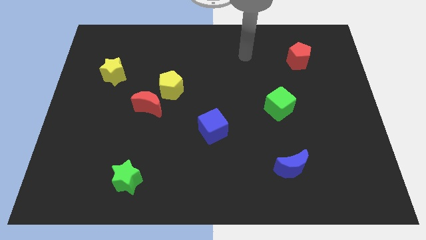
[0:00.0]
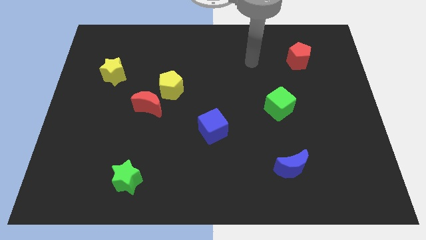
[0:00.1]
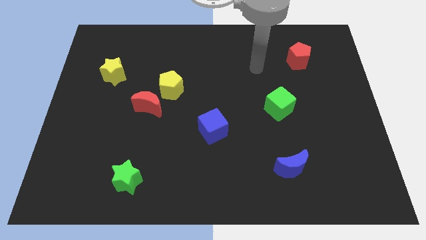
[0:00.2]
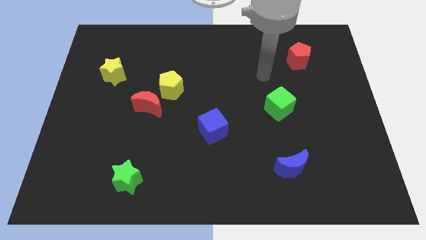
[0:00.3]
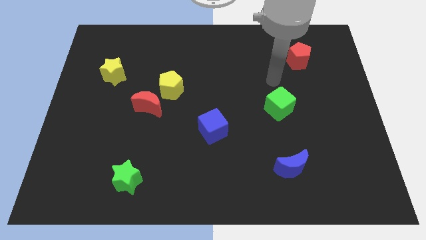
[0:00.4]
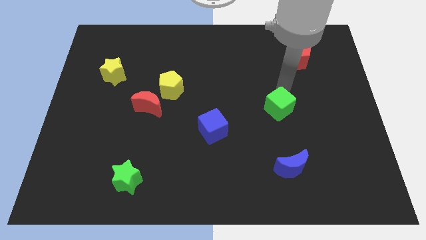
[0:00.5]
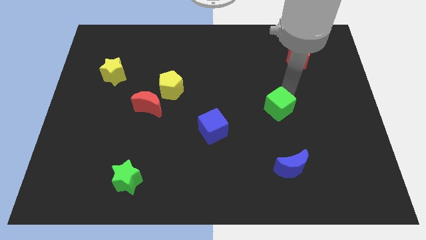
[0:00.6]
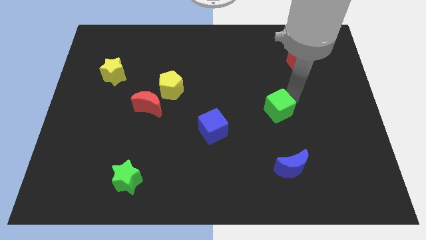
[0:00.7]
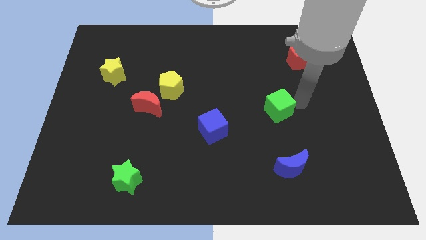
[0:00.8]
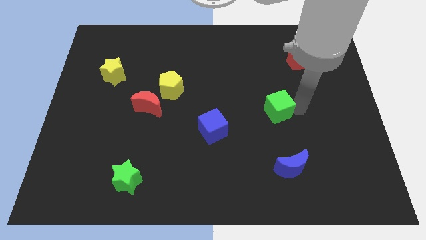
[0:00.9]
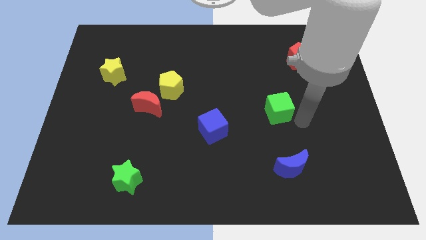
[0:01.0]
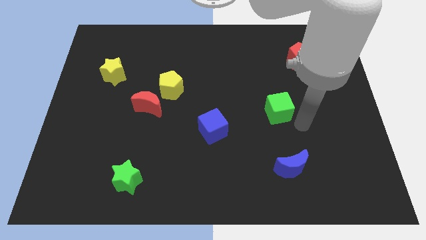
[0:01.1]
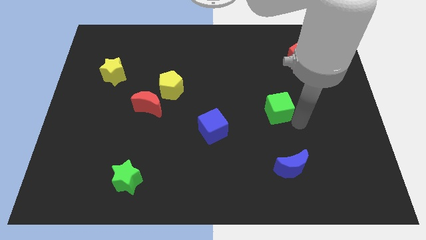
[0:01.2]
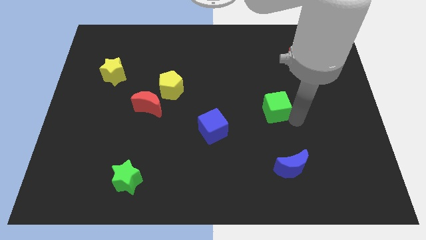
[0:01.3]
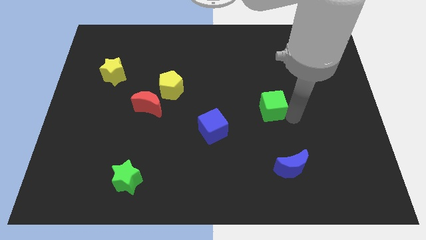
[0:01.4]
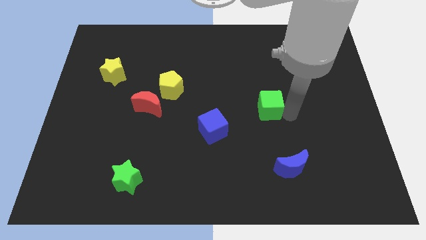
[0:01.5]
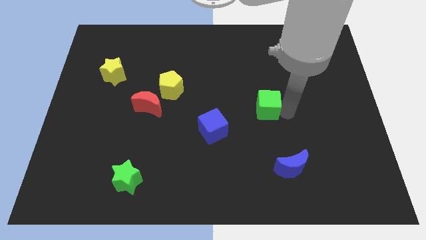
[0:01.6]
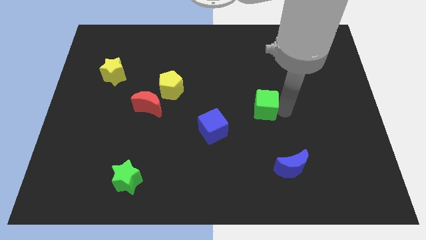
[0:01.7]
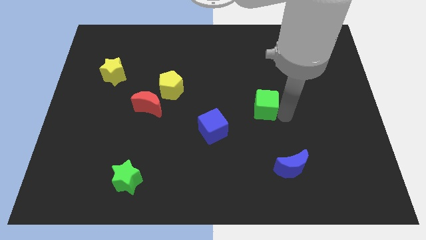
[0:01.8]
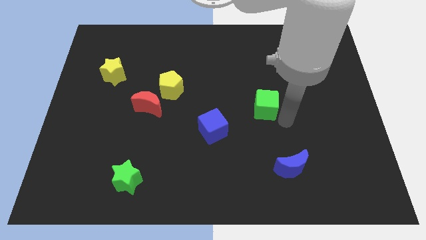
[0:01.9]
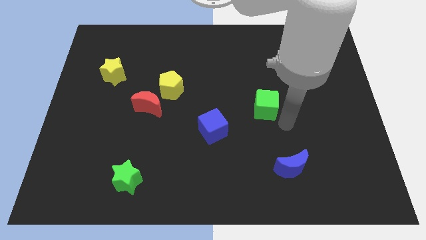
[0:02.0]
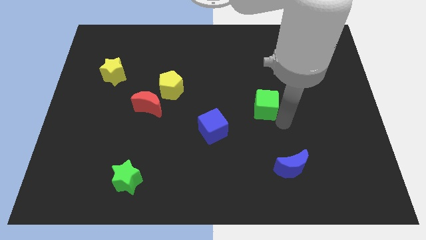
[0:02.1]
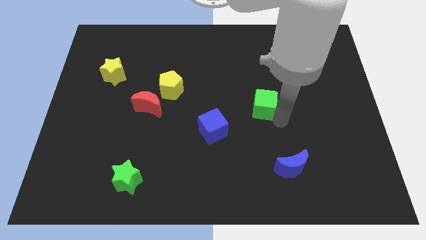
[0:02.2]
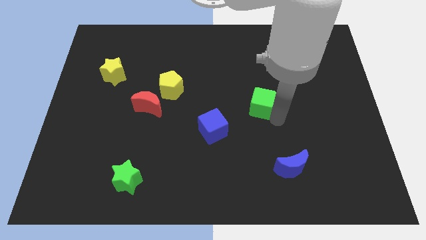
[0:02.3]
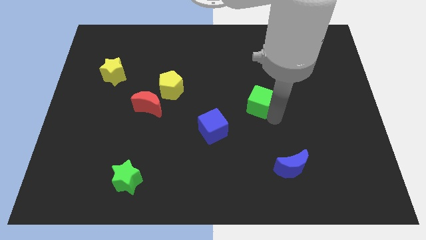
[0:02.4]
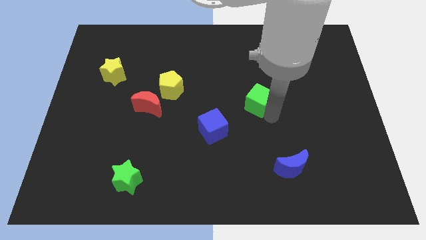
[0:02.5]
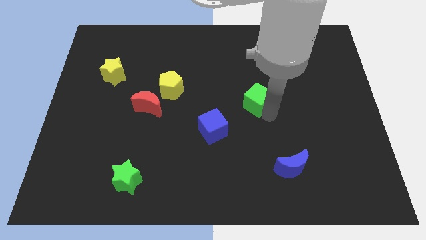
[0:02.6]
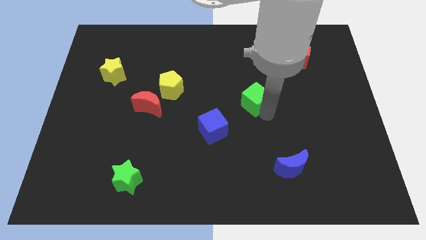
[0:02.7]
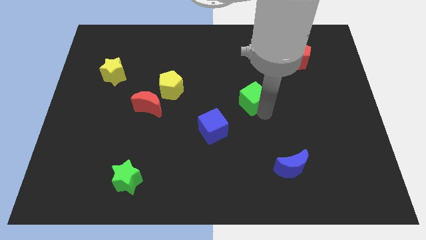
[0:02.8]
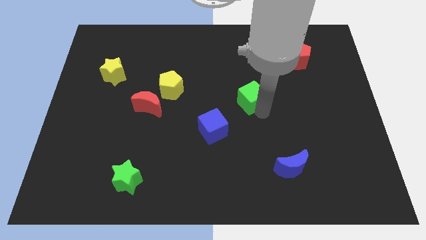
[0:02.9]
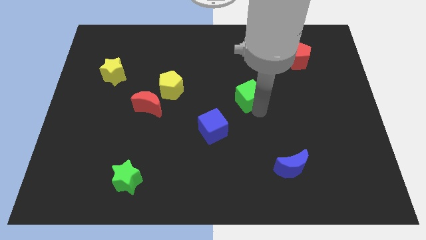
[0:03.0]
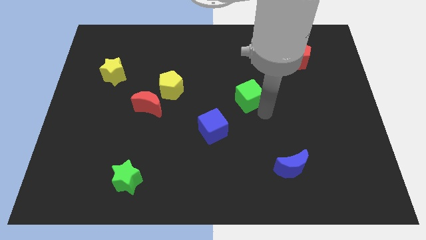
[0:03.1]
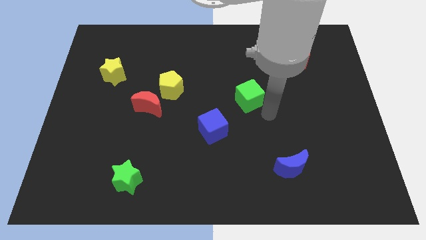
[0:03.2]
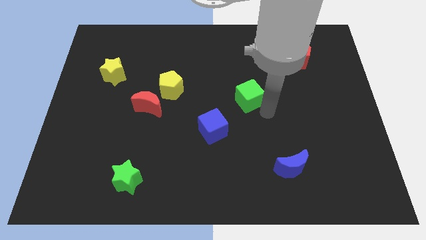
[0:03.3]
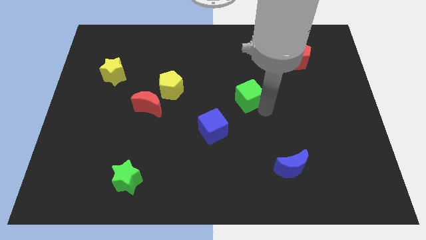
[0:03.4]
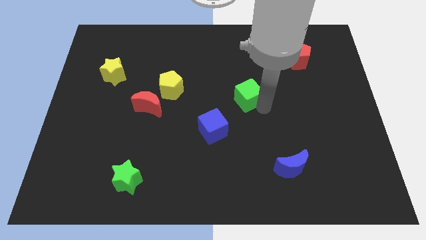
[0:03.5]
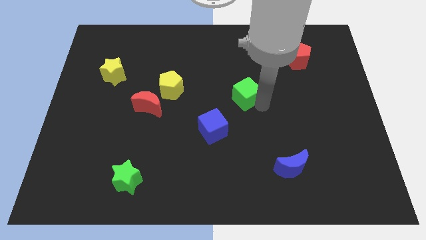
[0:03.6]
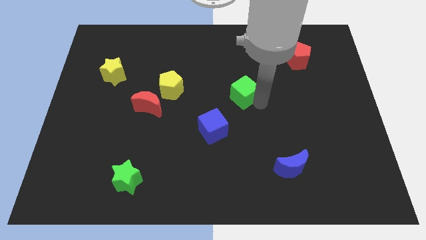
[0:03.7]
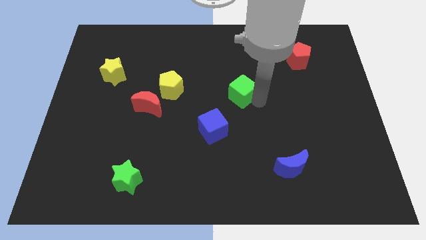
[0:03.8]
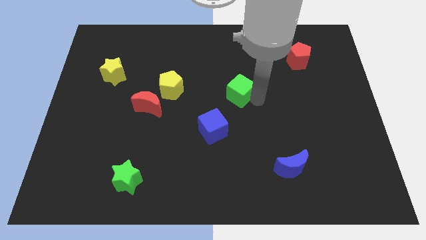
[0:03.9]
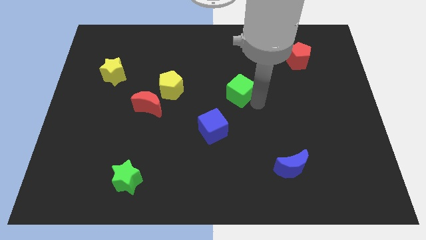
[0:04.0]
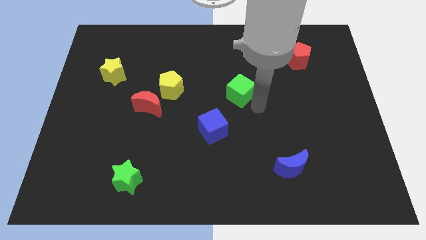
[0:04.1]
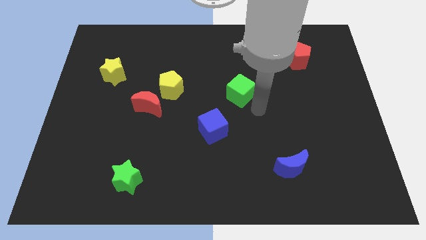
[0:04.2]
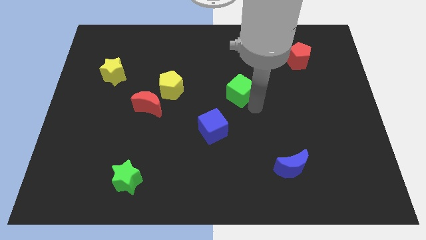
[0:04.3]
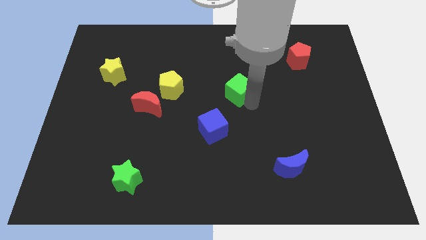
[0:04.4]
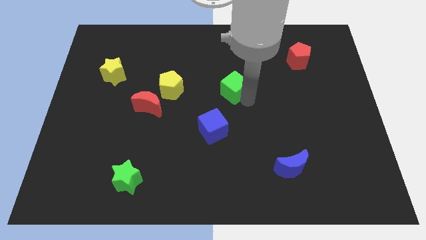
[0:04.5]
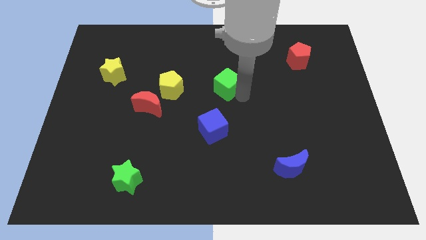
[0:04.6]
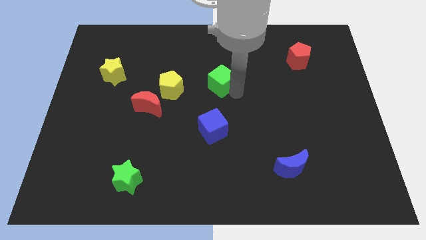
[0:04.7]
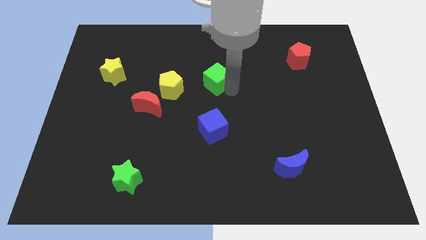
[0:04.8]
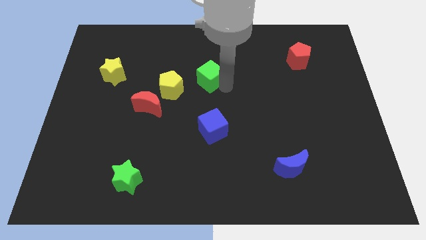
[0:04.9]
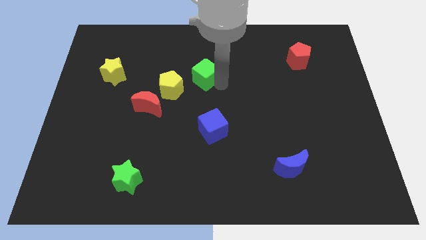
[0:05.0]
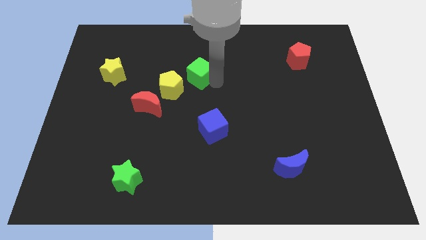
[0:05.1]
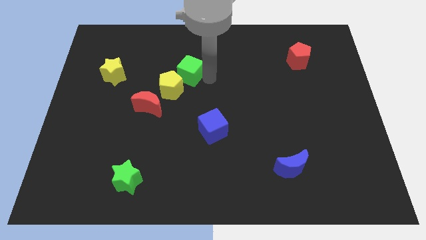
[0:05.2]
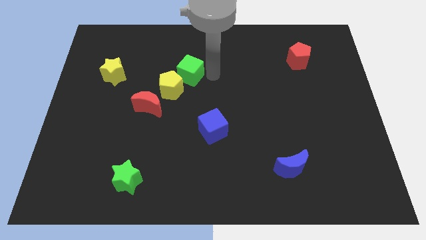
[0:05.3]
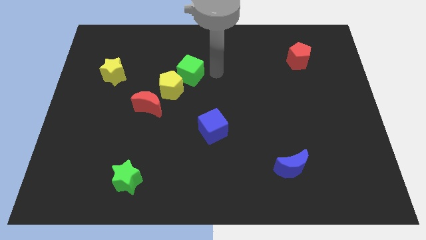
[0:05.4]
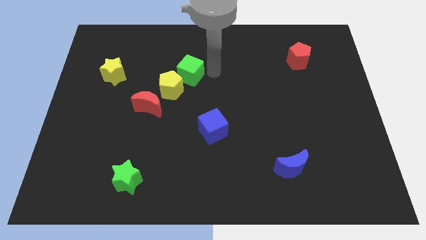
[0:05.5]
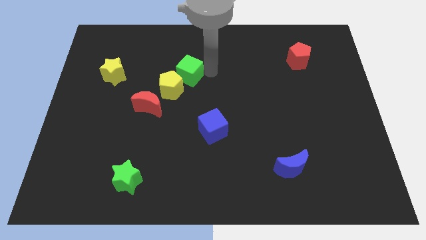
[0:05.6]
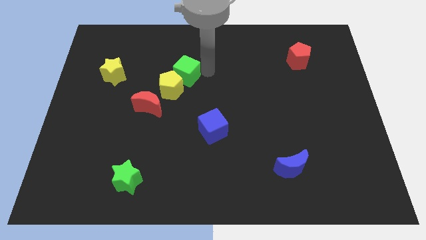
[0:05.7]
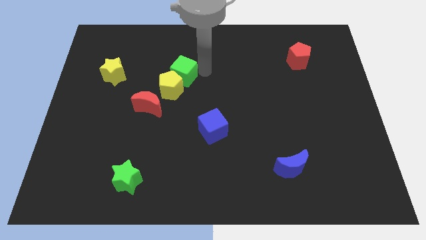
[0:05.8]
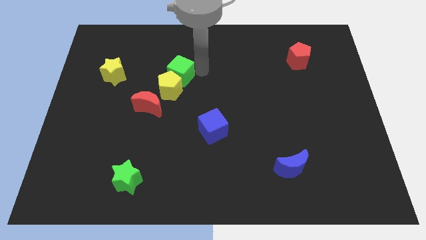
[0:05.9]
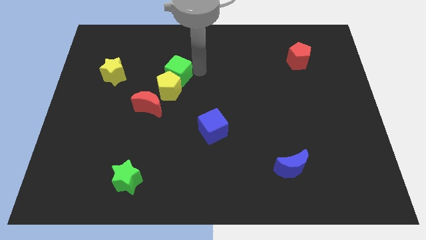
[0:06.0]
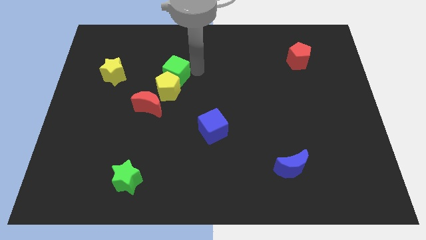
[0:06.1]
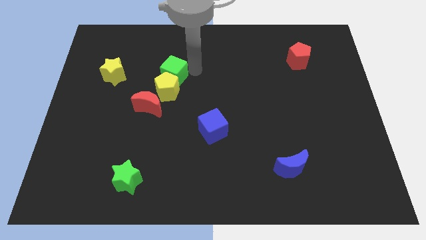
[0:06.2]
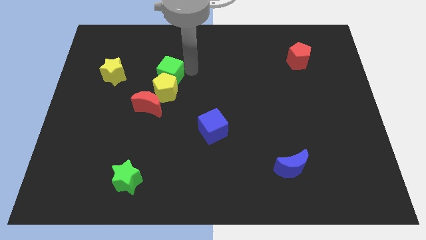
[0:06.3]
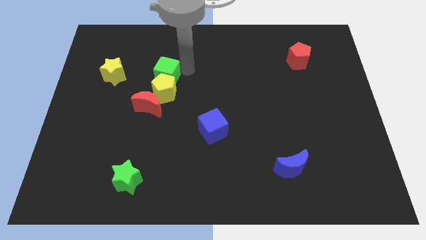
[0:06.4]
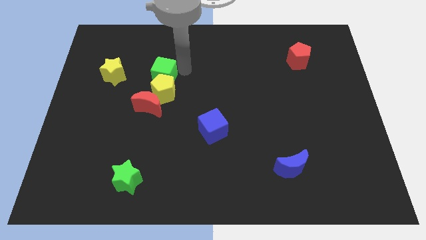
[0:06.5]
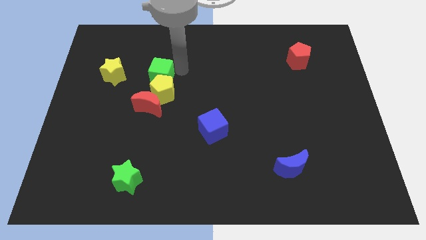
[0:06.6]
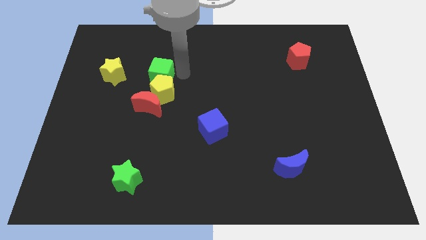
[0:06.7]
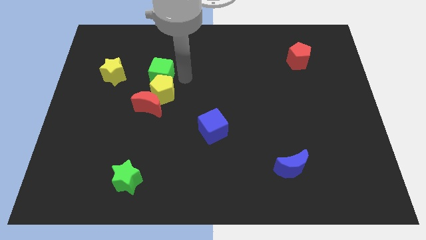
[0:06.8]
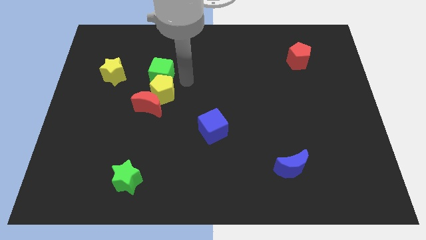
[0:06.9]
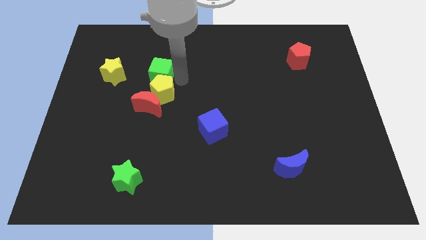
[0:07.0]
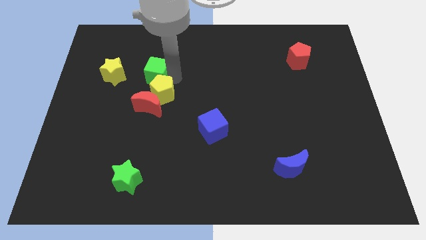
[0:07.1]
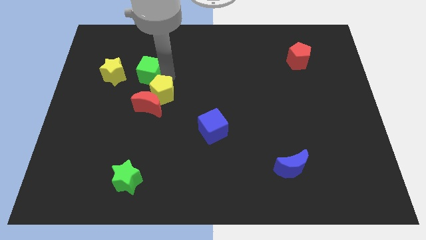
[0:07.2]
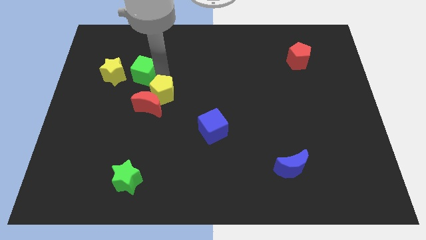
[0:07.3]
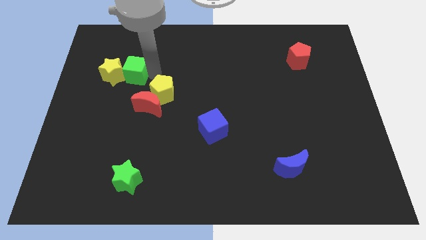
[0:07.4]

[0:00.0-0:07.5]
push the green cube next to the yellow star

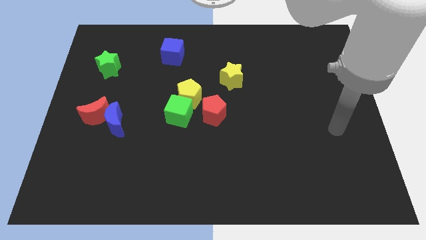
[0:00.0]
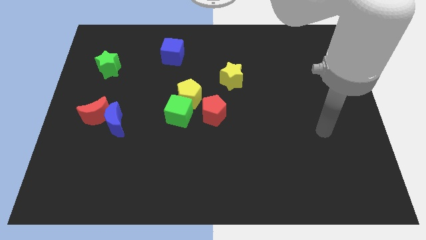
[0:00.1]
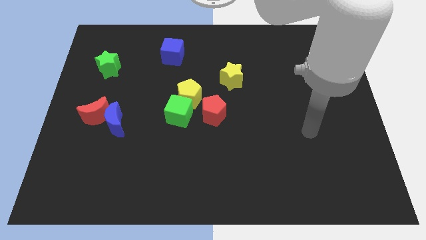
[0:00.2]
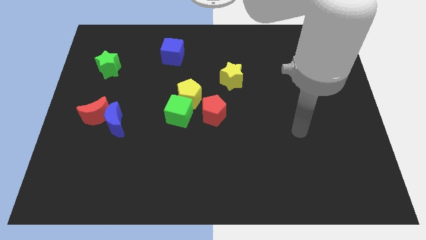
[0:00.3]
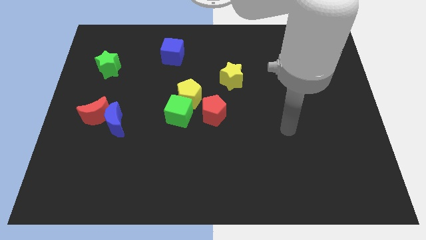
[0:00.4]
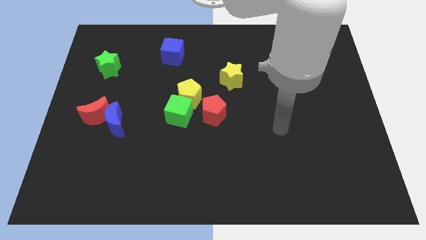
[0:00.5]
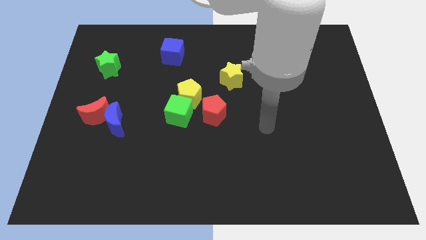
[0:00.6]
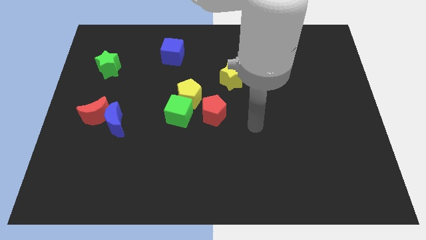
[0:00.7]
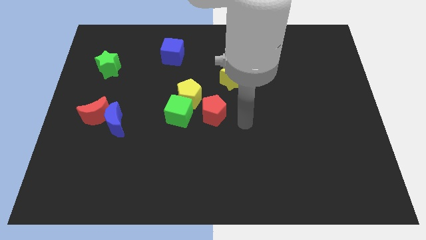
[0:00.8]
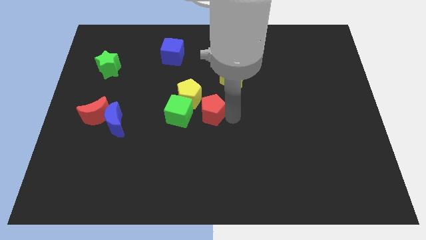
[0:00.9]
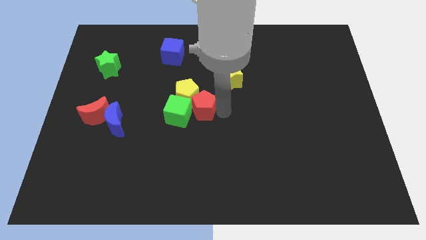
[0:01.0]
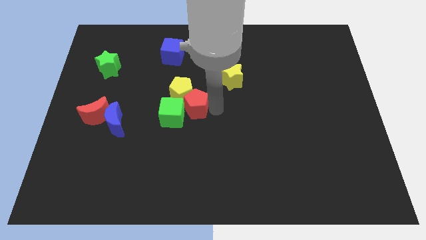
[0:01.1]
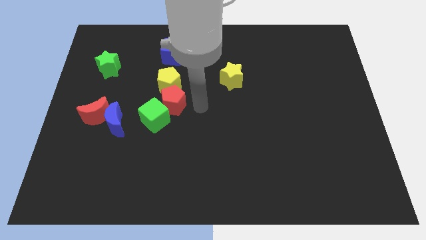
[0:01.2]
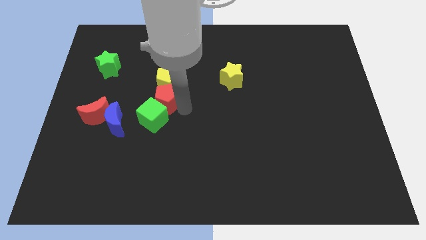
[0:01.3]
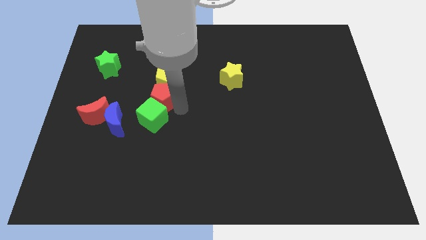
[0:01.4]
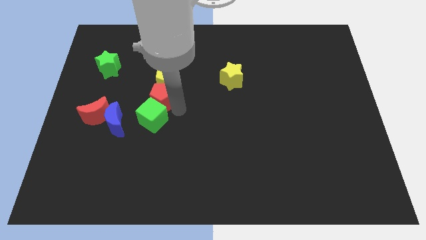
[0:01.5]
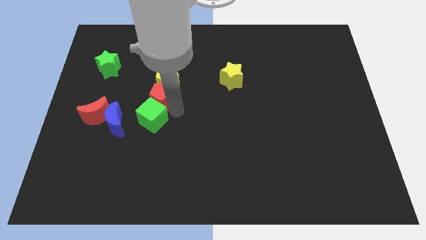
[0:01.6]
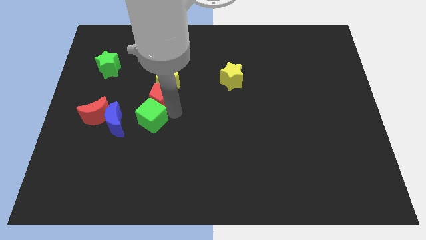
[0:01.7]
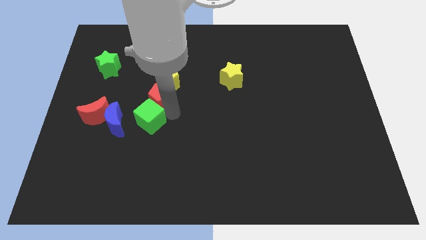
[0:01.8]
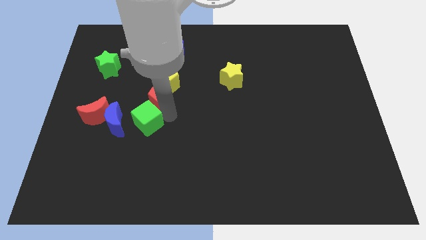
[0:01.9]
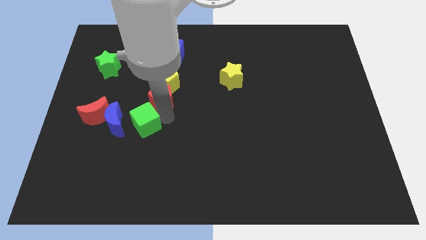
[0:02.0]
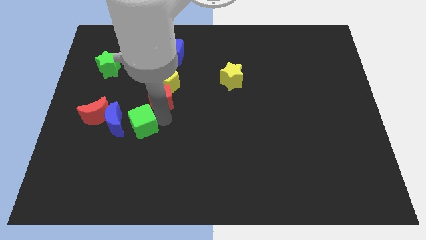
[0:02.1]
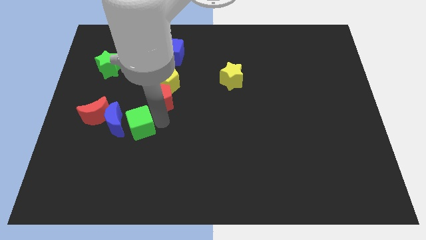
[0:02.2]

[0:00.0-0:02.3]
slide the green cube to the blue moon
